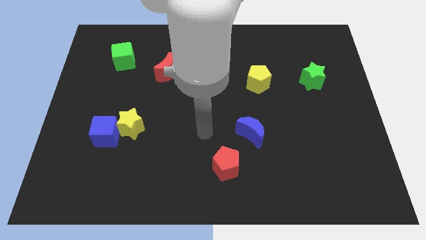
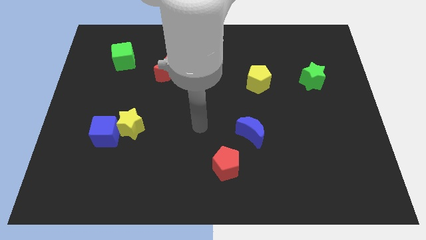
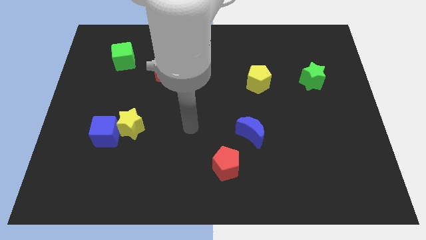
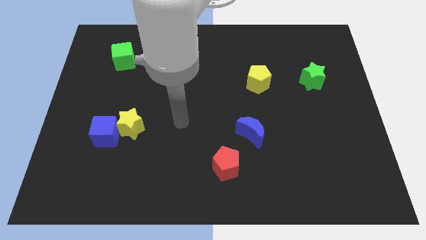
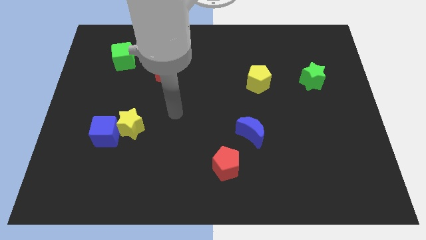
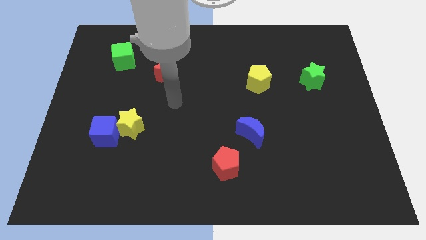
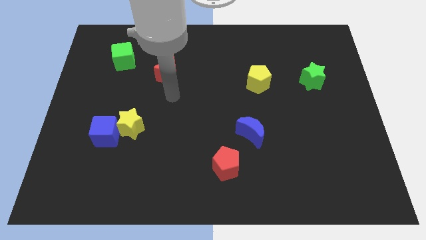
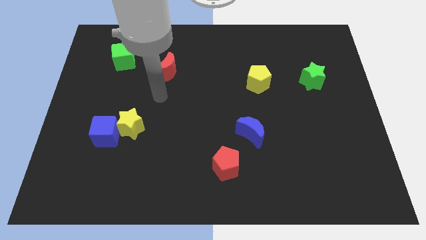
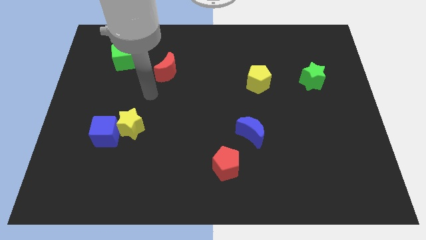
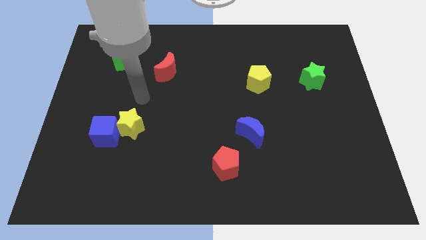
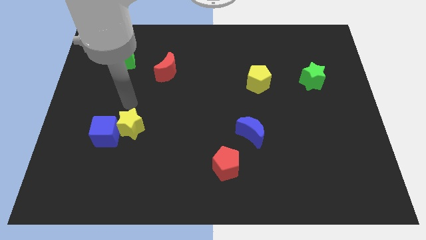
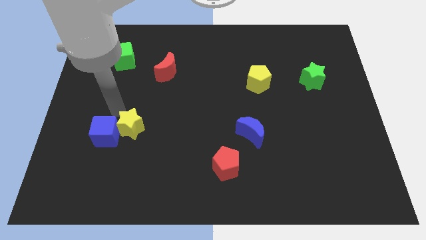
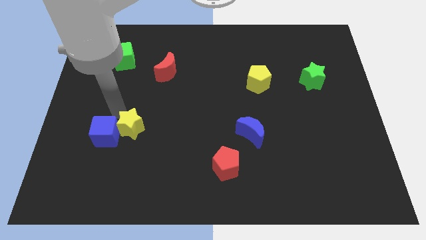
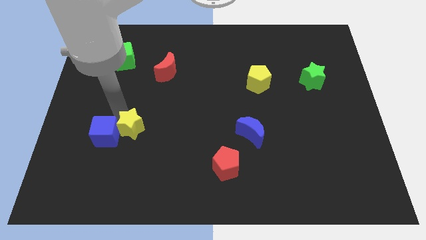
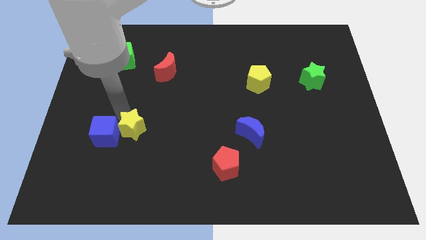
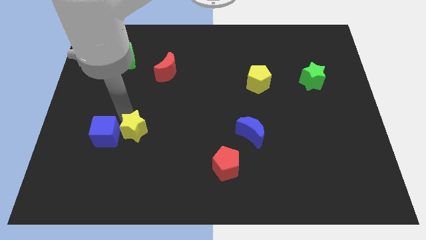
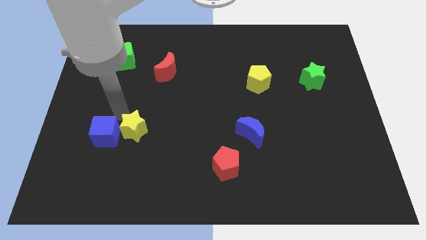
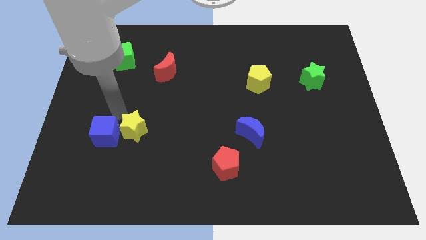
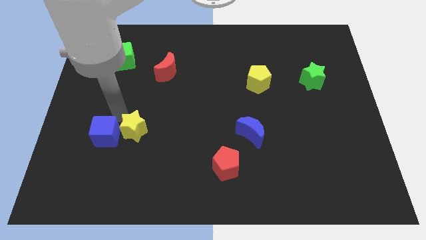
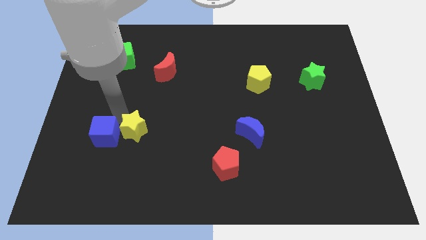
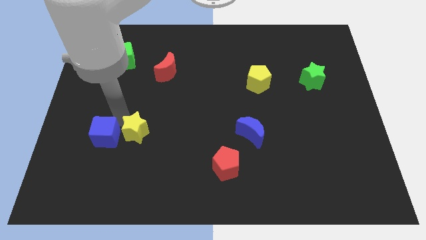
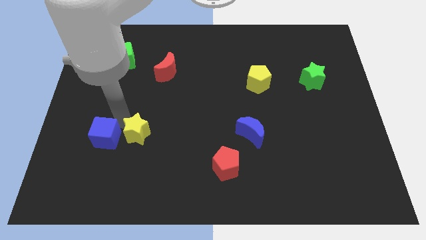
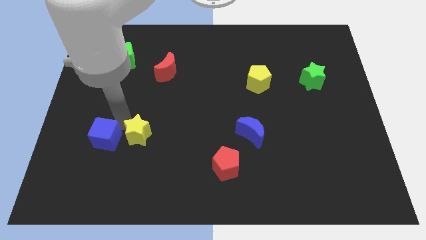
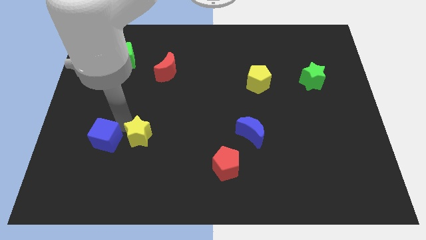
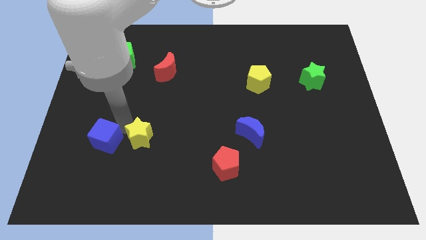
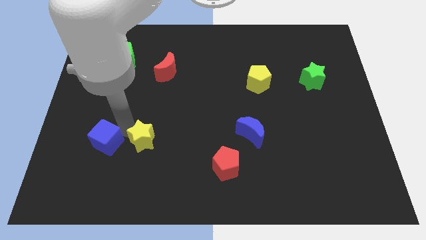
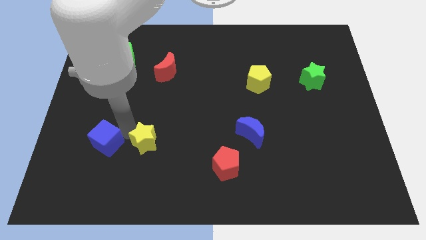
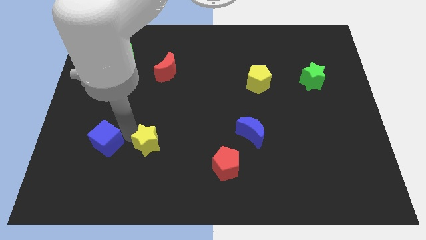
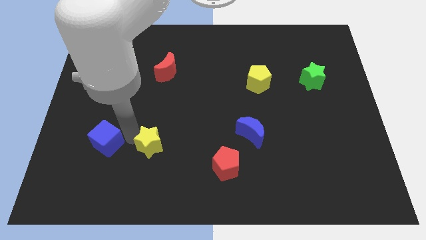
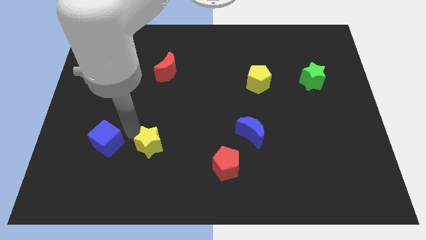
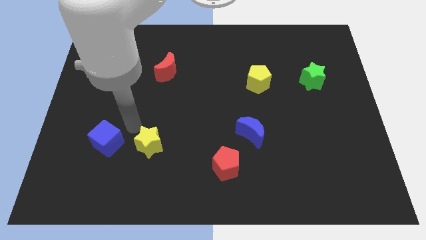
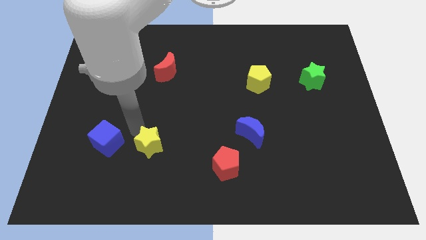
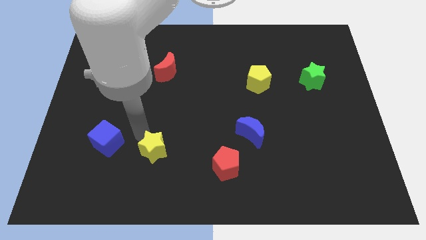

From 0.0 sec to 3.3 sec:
slide the yellow star slightly diagonally down and right

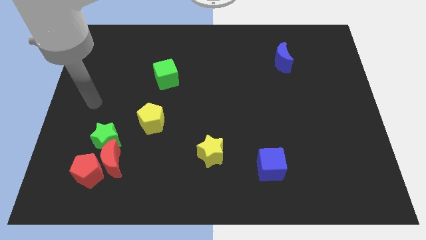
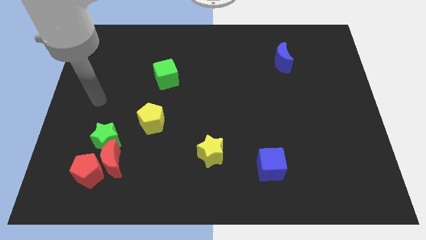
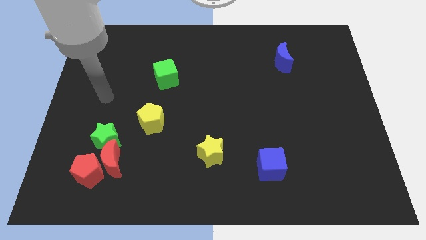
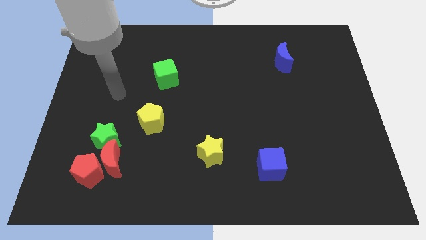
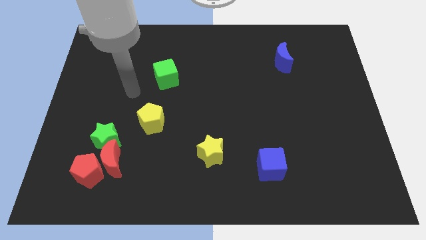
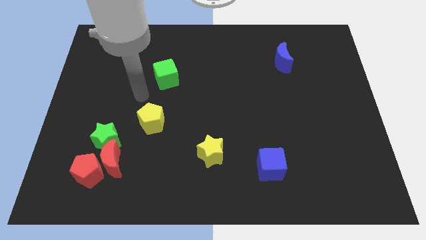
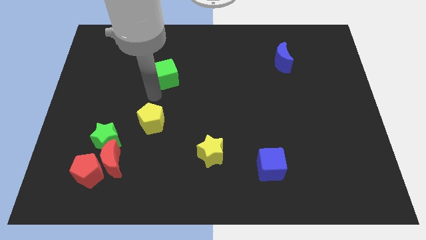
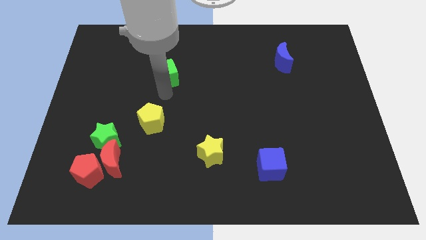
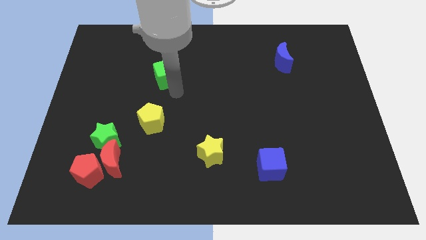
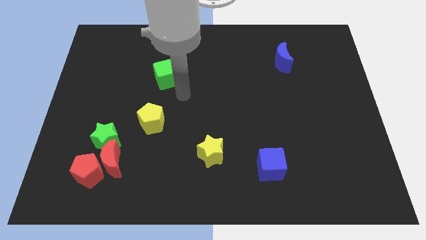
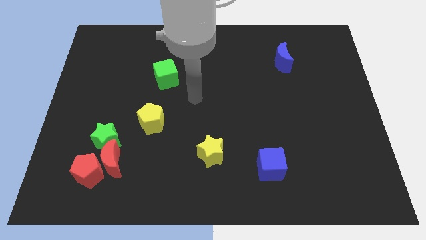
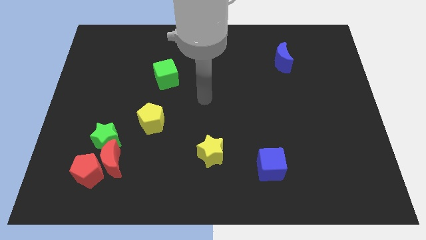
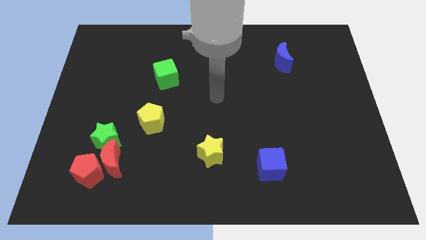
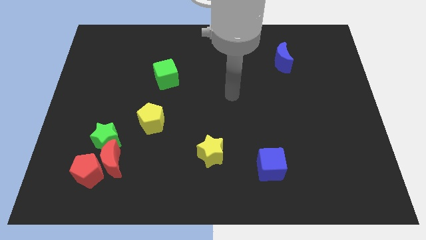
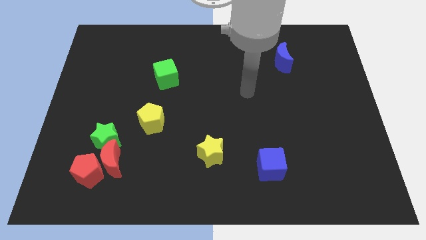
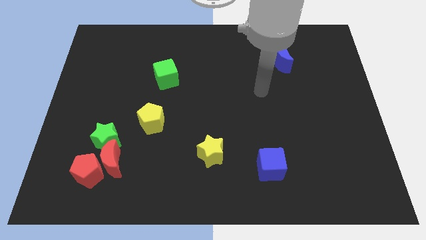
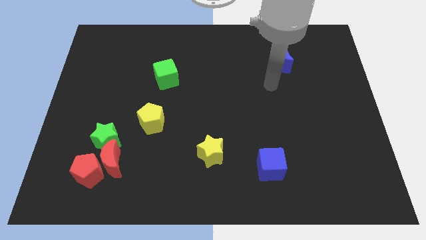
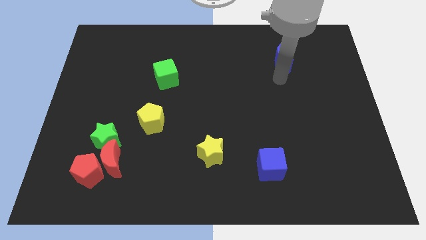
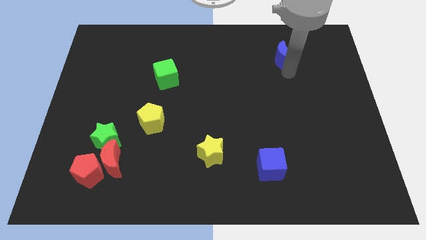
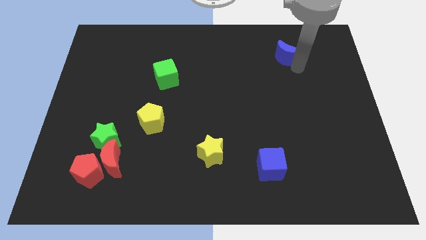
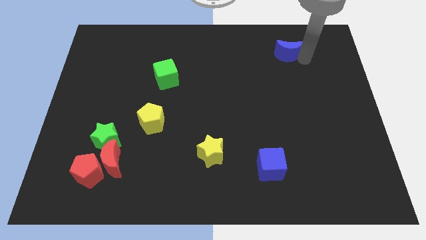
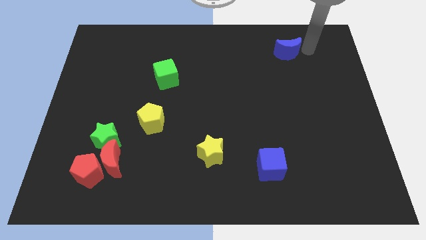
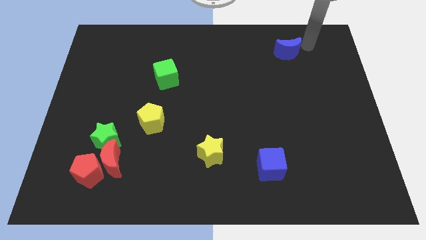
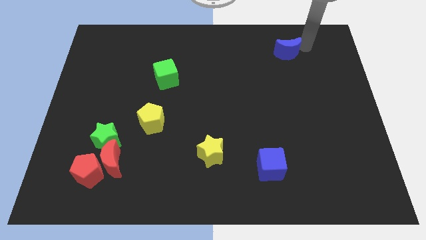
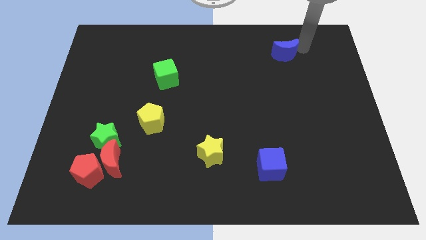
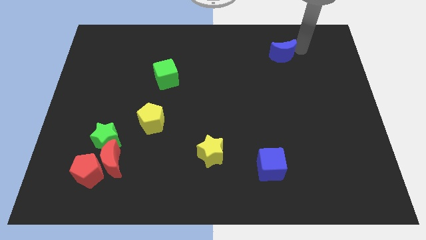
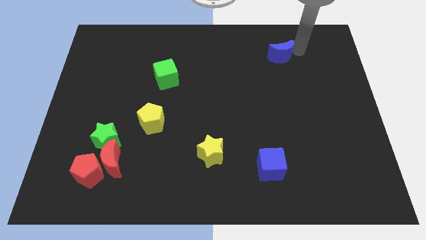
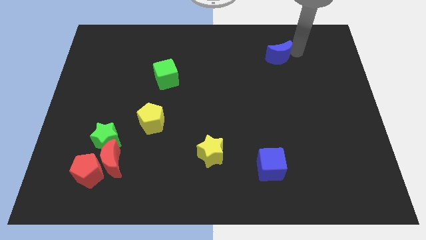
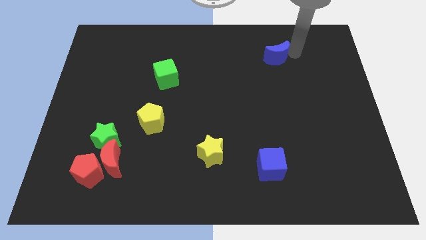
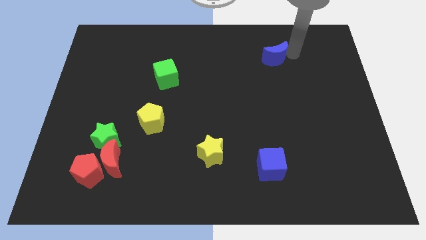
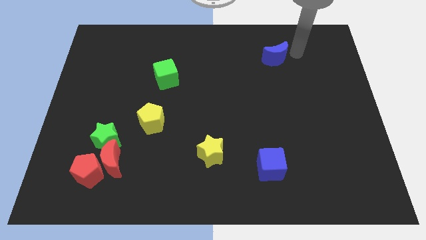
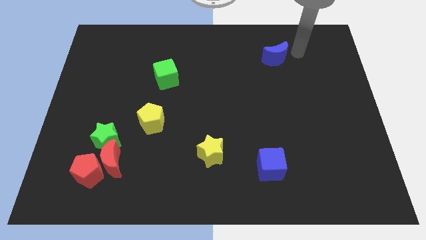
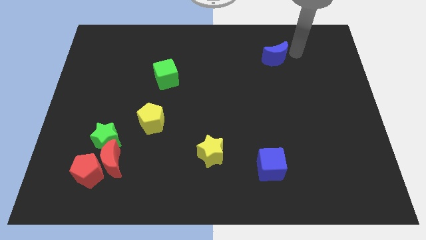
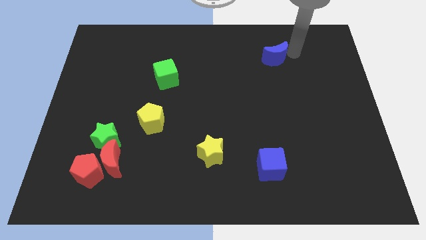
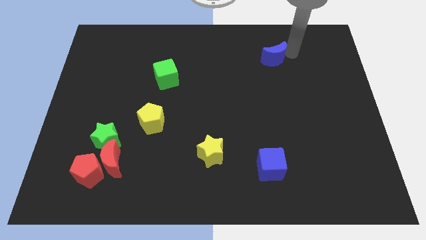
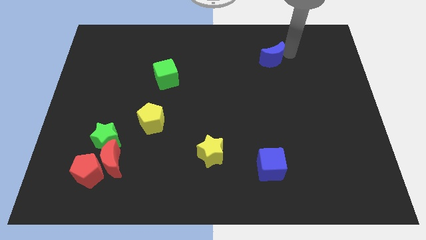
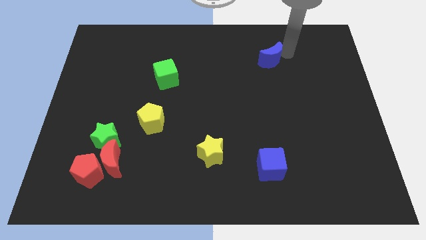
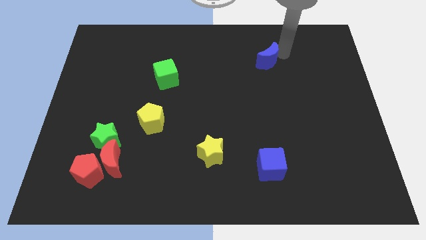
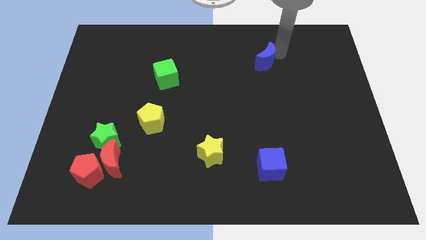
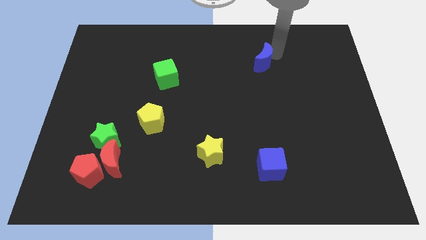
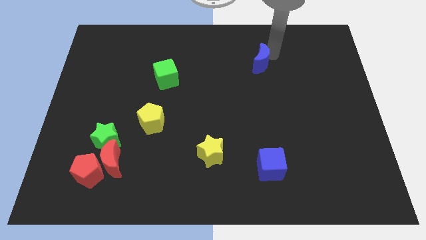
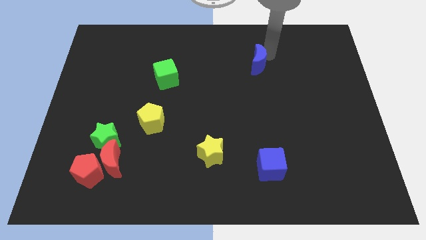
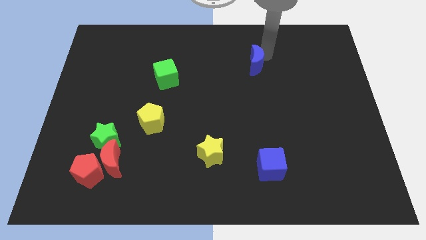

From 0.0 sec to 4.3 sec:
slightly move the blue moon left
